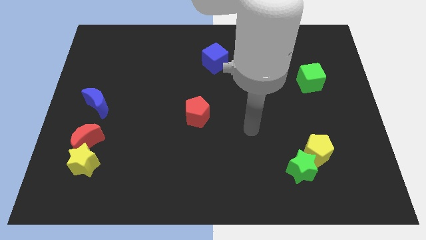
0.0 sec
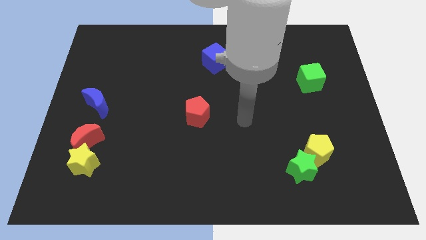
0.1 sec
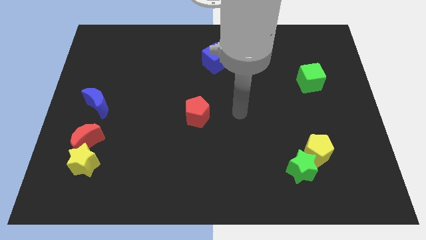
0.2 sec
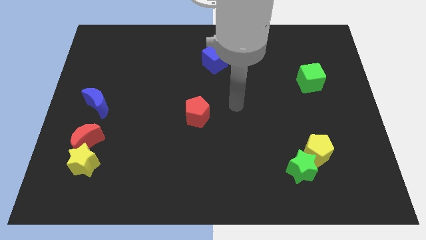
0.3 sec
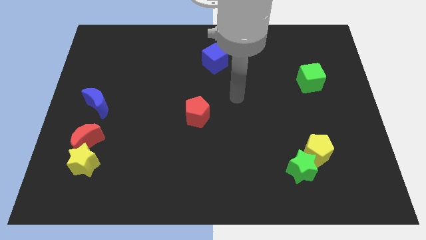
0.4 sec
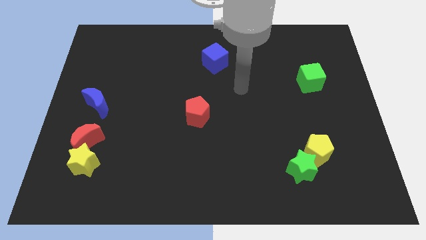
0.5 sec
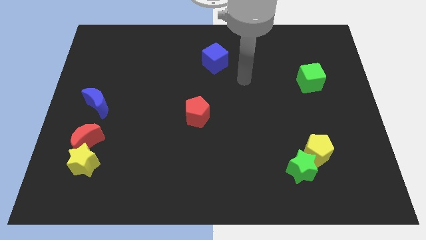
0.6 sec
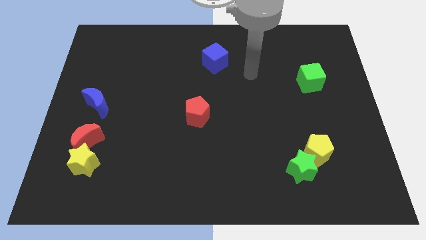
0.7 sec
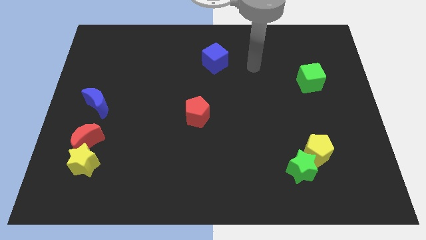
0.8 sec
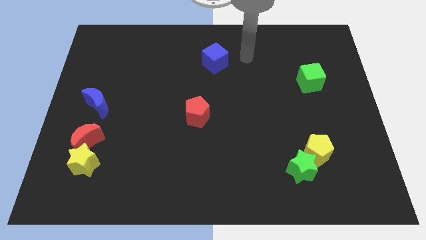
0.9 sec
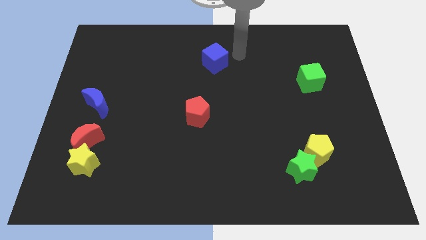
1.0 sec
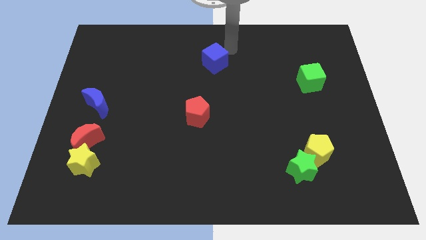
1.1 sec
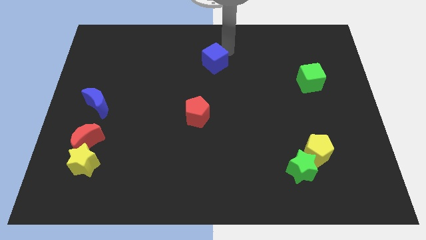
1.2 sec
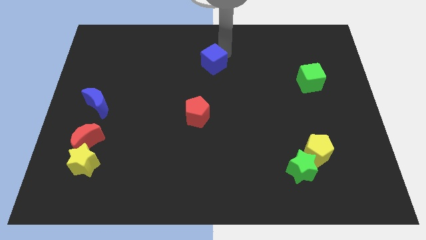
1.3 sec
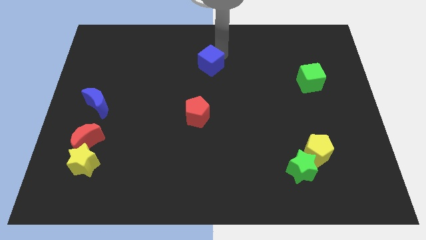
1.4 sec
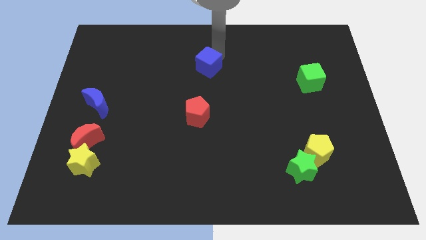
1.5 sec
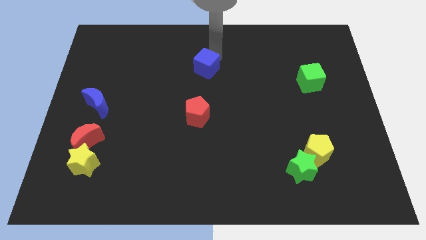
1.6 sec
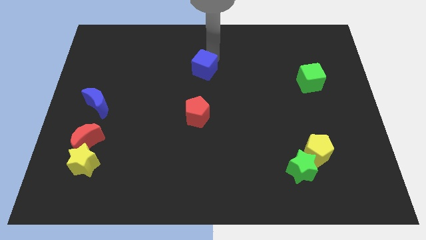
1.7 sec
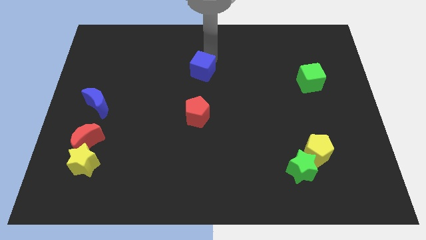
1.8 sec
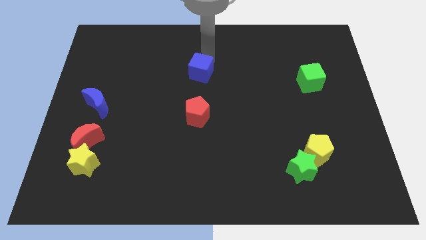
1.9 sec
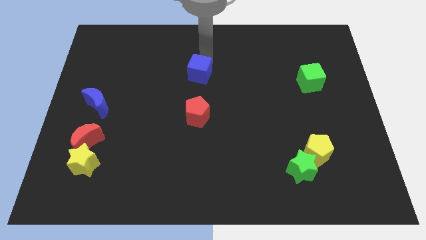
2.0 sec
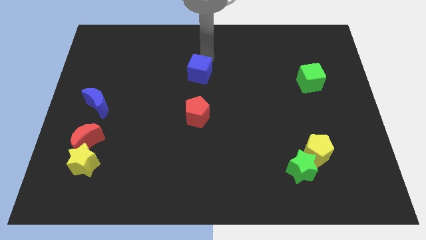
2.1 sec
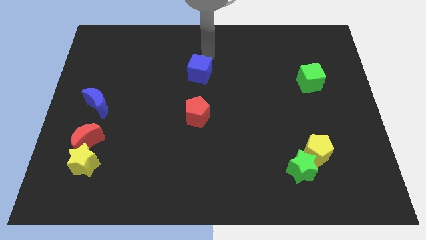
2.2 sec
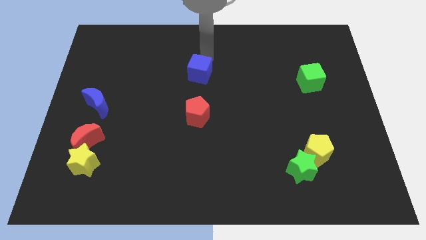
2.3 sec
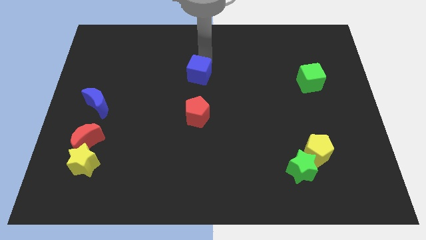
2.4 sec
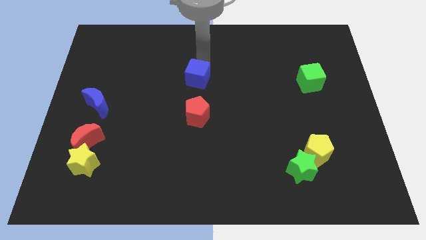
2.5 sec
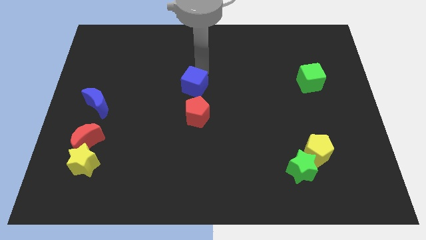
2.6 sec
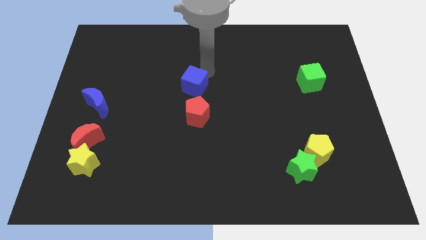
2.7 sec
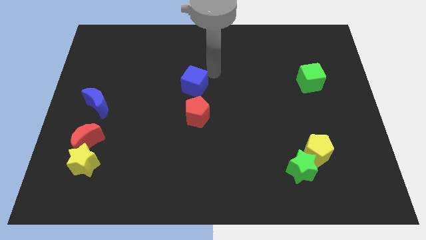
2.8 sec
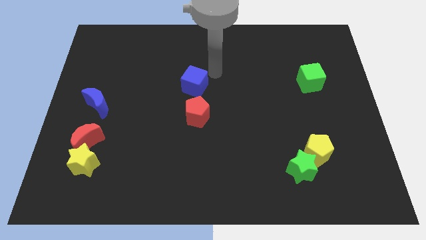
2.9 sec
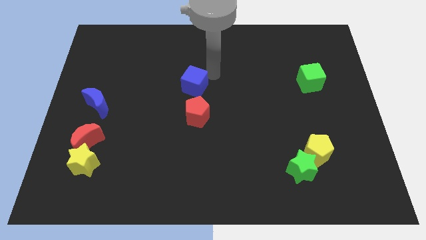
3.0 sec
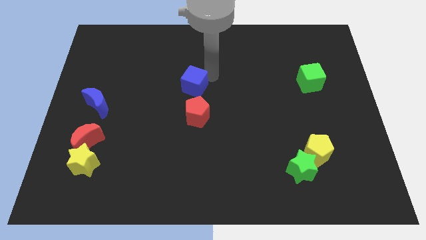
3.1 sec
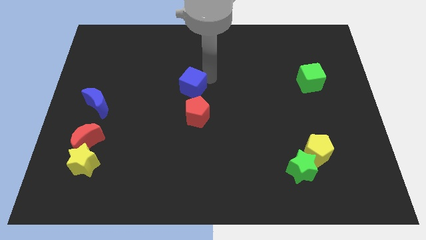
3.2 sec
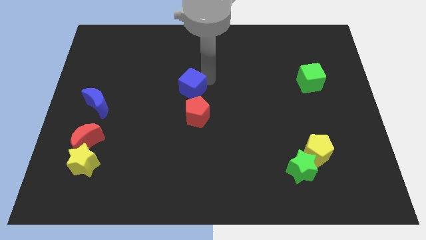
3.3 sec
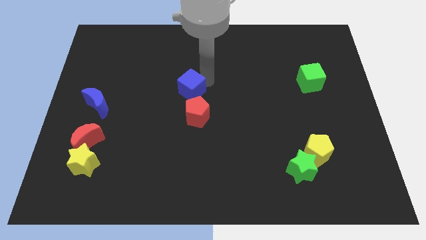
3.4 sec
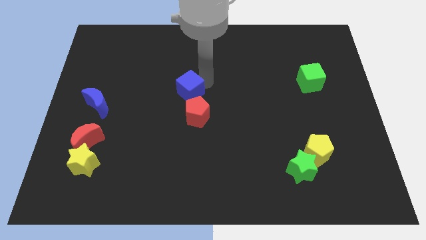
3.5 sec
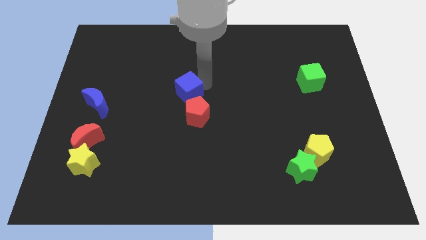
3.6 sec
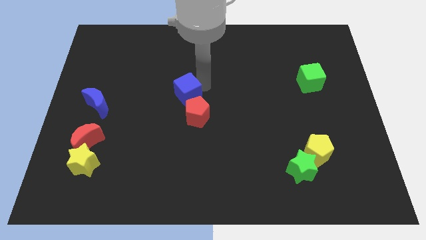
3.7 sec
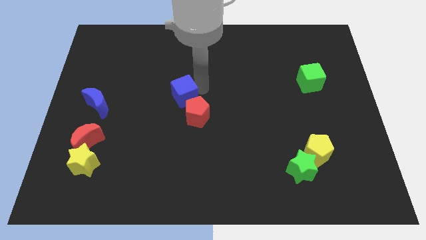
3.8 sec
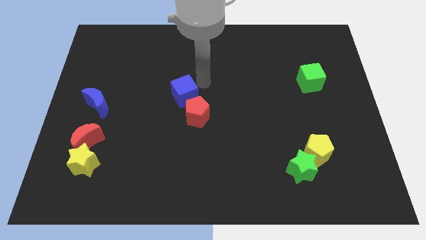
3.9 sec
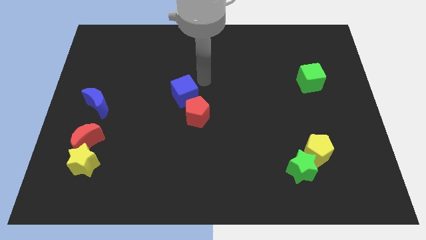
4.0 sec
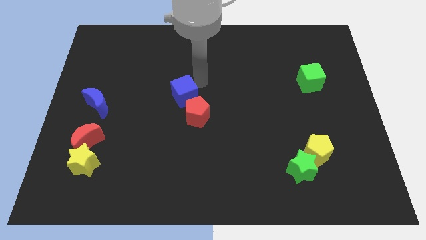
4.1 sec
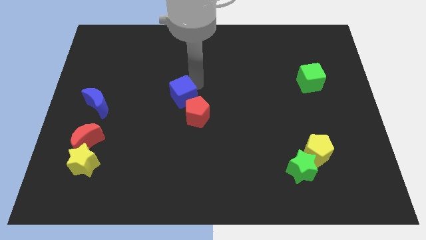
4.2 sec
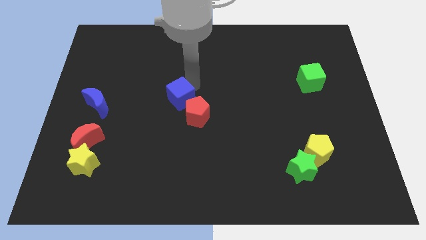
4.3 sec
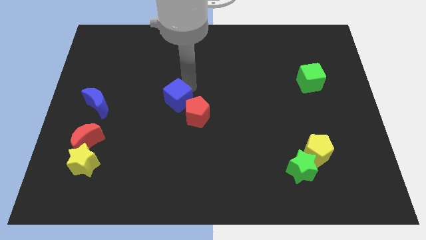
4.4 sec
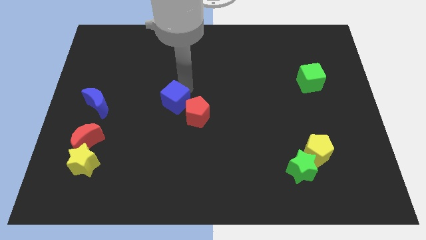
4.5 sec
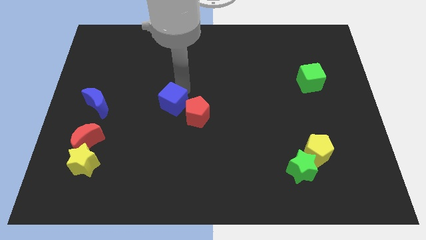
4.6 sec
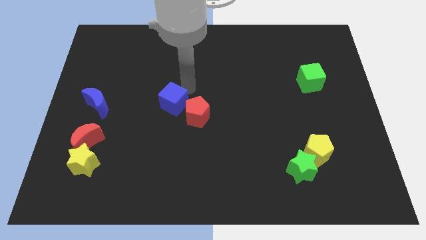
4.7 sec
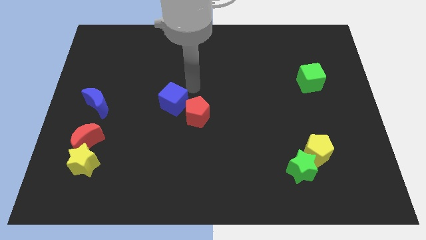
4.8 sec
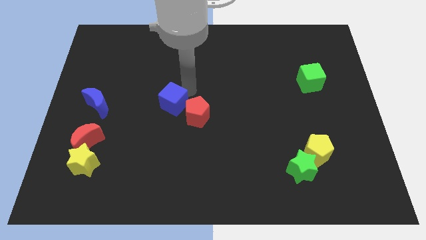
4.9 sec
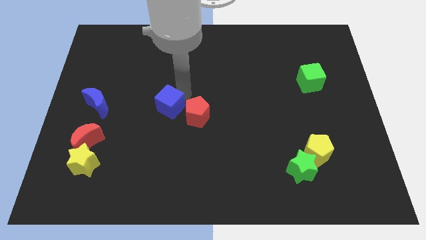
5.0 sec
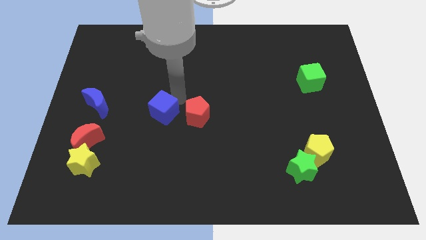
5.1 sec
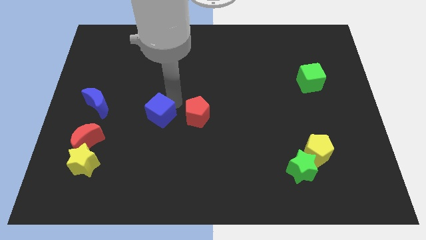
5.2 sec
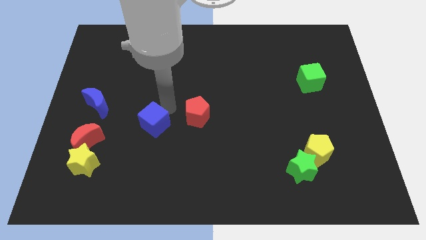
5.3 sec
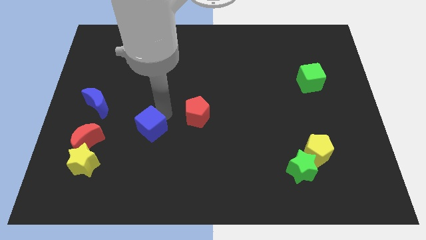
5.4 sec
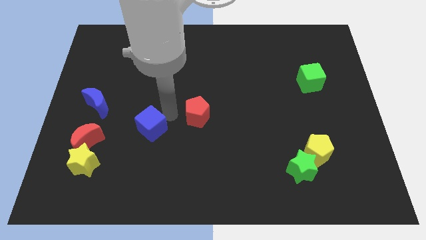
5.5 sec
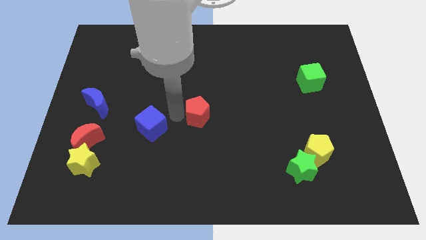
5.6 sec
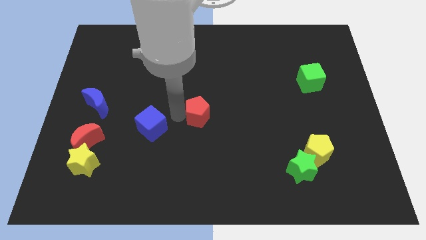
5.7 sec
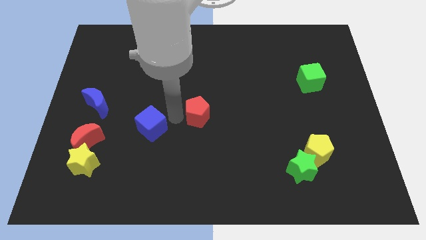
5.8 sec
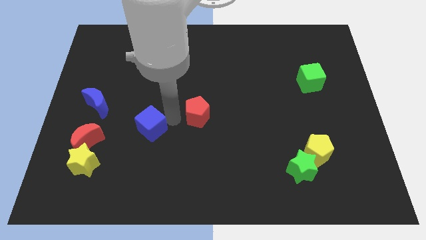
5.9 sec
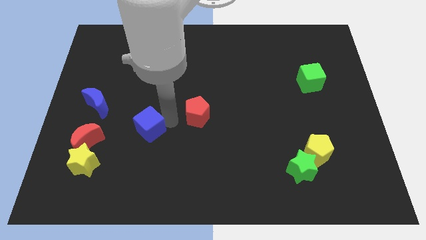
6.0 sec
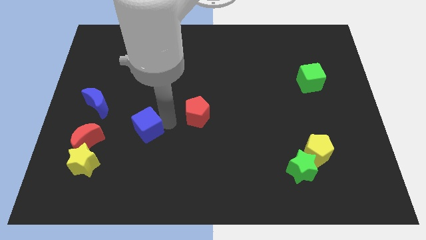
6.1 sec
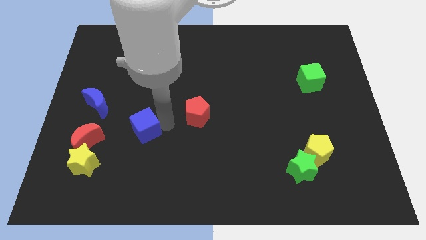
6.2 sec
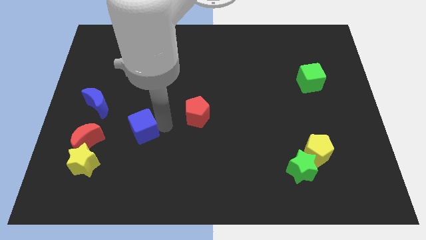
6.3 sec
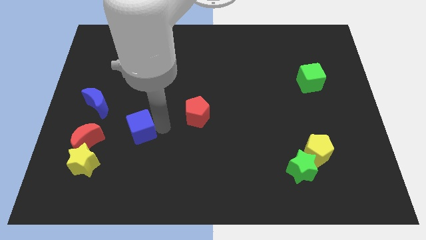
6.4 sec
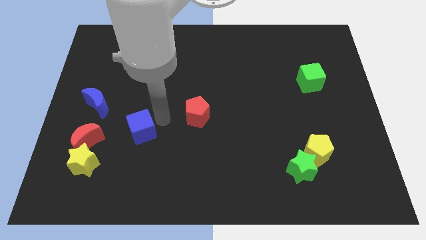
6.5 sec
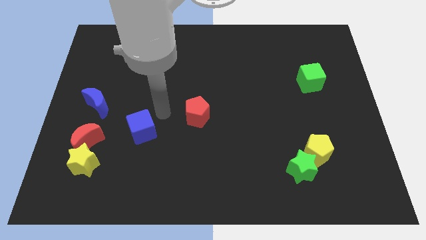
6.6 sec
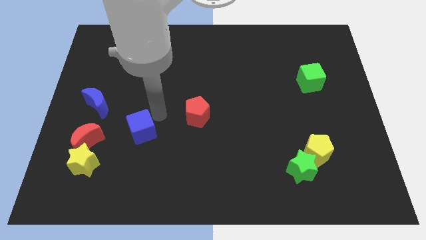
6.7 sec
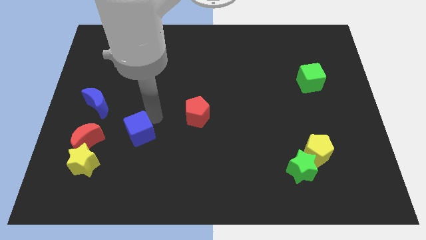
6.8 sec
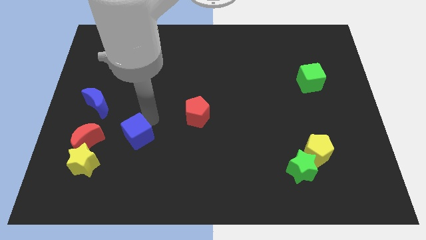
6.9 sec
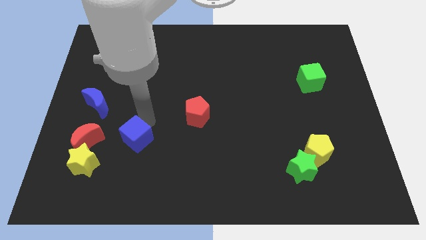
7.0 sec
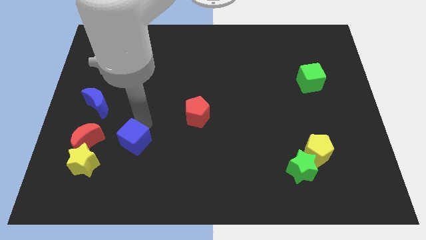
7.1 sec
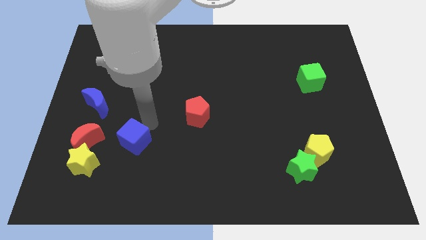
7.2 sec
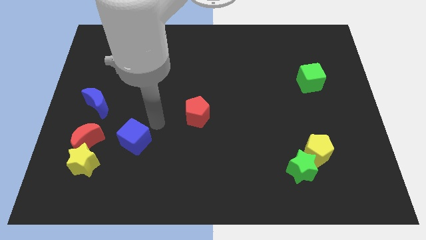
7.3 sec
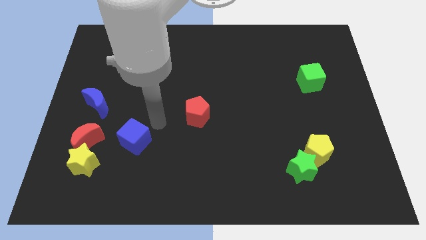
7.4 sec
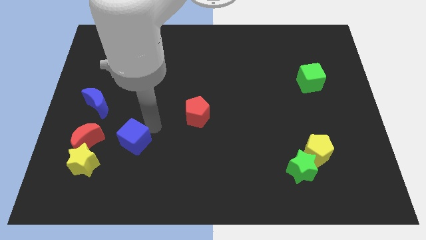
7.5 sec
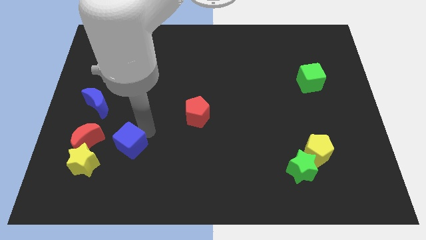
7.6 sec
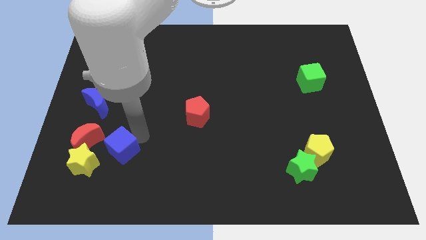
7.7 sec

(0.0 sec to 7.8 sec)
push the blue cube to the bottom right side of the red moon
